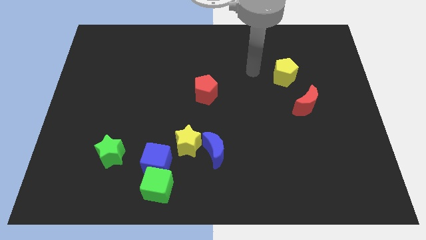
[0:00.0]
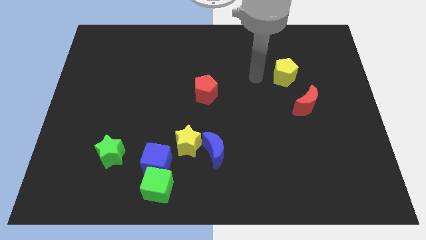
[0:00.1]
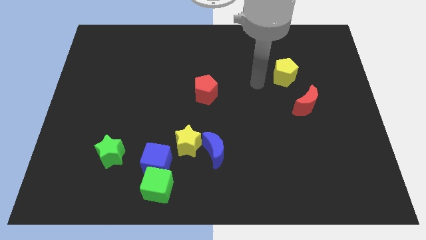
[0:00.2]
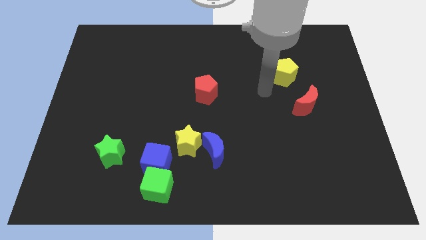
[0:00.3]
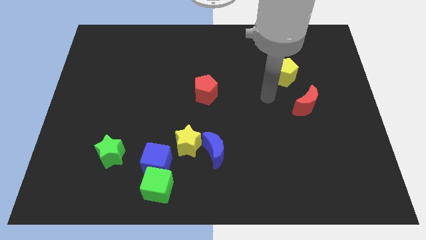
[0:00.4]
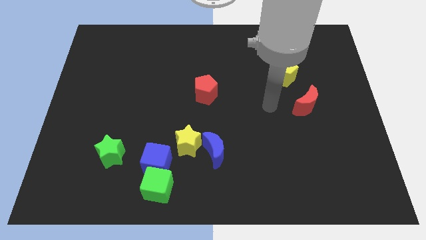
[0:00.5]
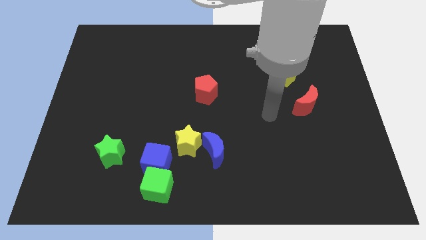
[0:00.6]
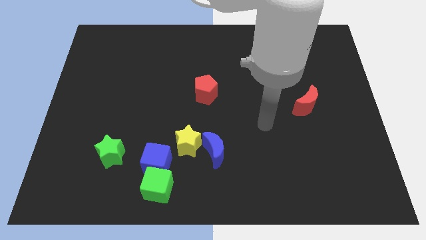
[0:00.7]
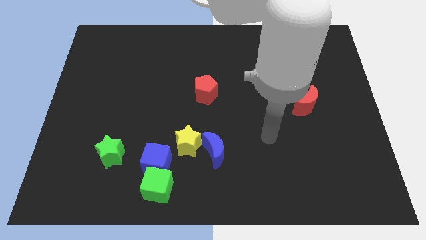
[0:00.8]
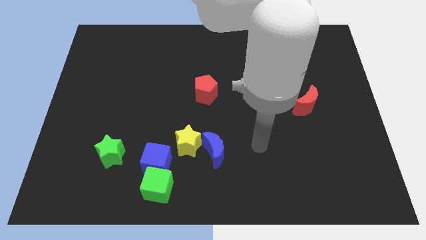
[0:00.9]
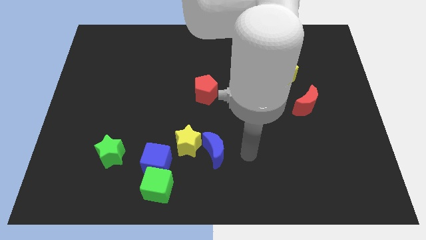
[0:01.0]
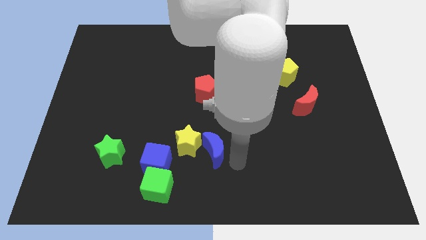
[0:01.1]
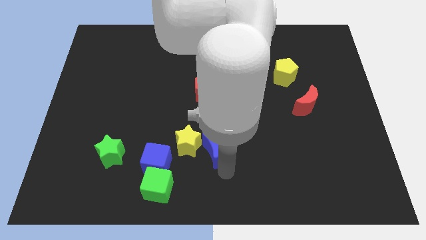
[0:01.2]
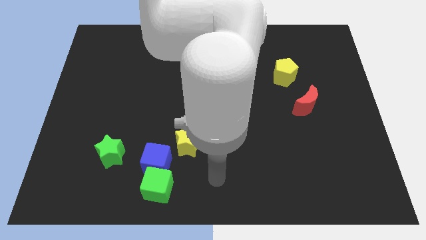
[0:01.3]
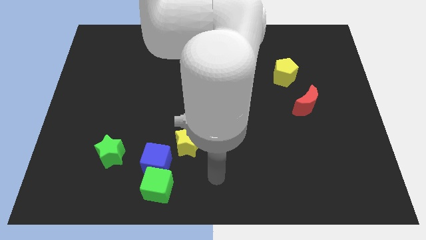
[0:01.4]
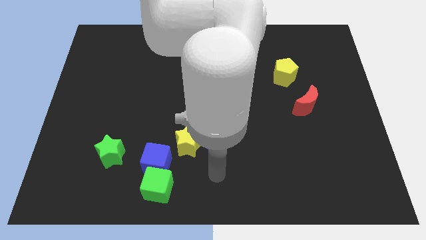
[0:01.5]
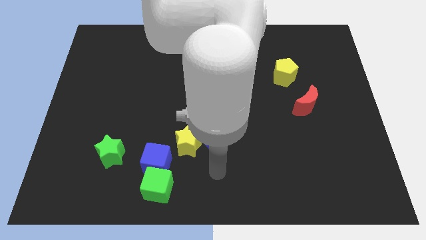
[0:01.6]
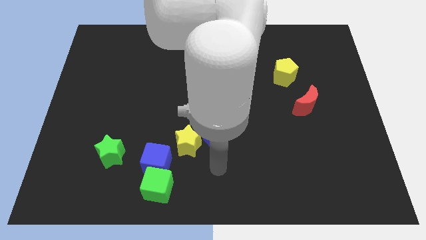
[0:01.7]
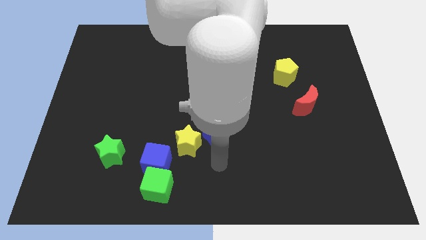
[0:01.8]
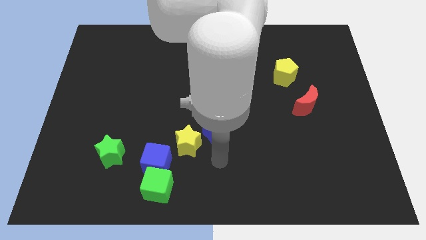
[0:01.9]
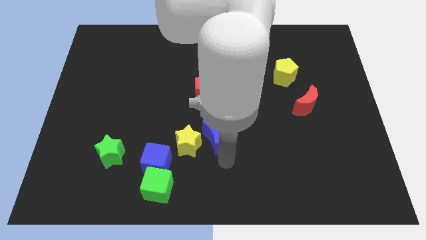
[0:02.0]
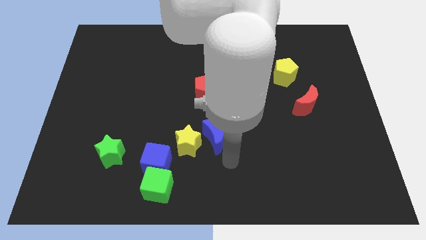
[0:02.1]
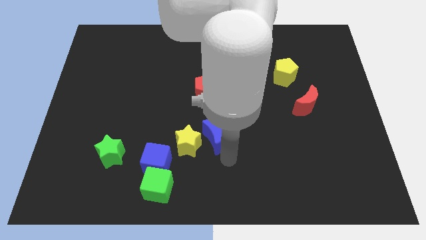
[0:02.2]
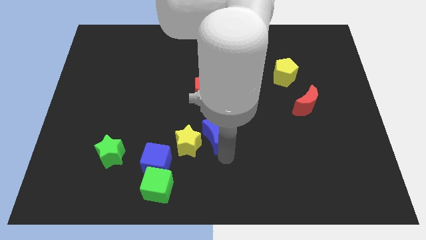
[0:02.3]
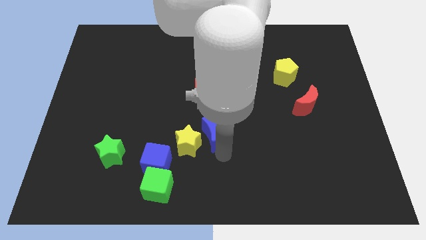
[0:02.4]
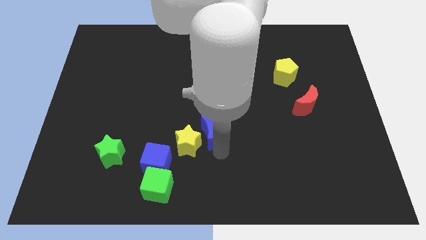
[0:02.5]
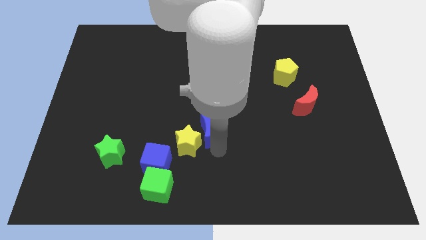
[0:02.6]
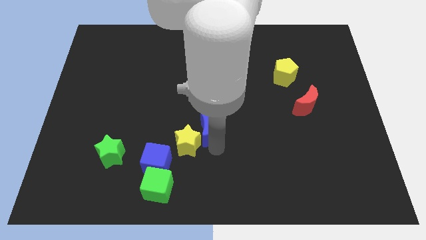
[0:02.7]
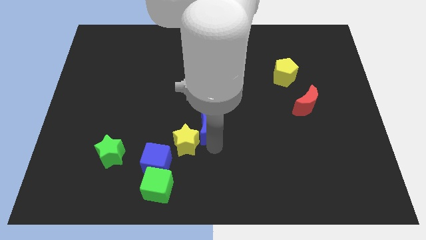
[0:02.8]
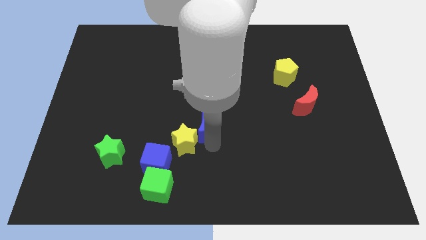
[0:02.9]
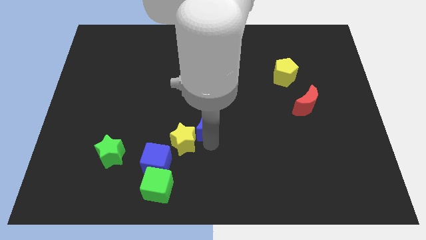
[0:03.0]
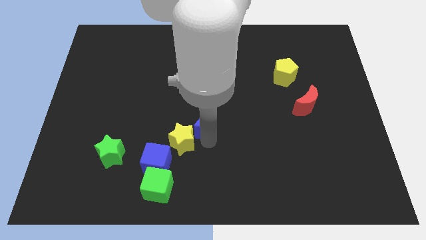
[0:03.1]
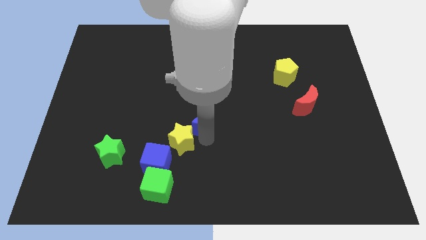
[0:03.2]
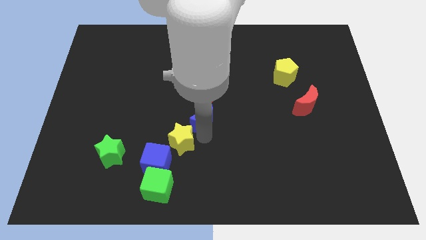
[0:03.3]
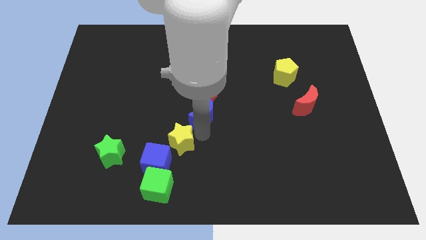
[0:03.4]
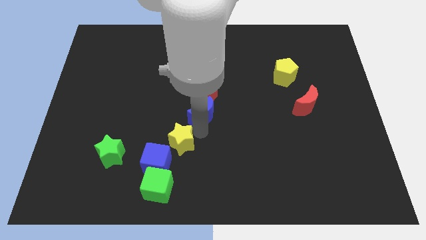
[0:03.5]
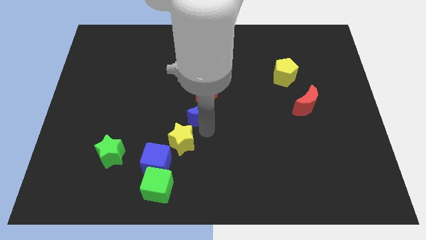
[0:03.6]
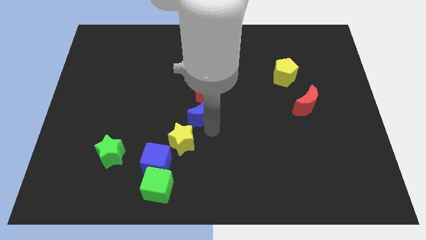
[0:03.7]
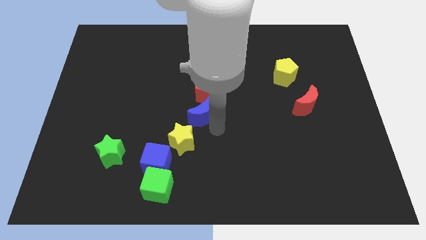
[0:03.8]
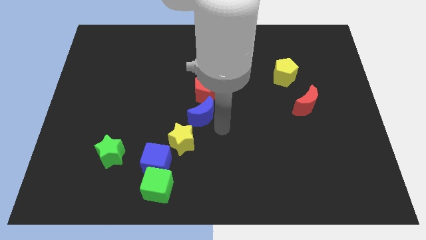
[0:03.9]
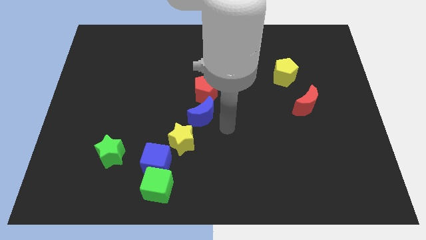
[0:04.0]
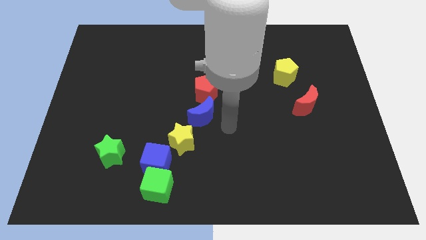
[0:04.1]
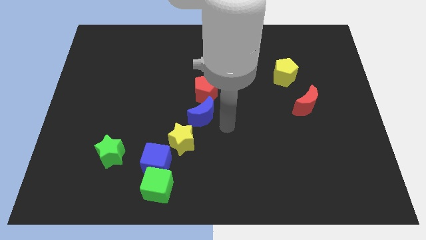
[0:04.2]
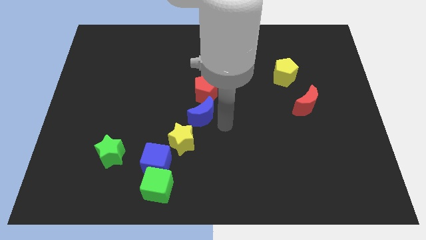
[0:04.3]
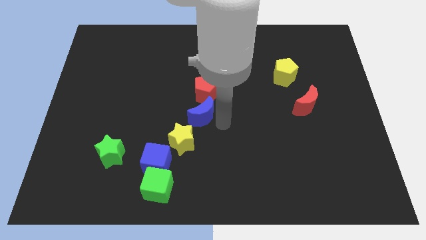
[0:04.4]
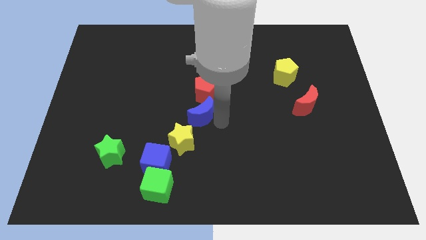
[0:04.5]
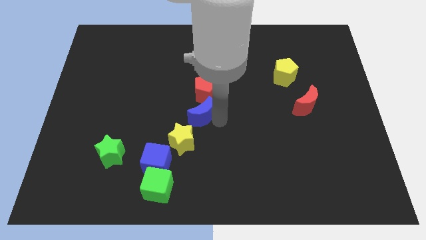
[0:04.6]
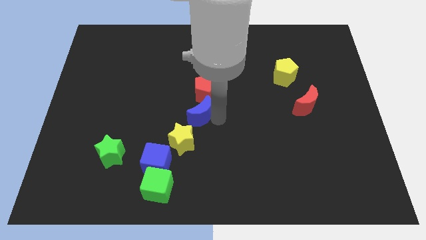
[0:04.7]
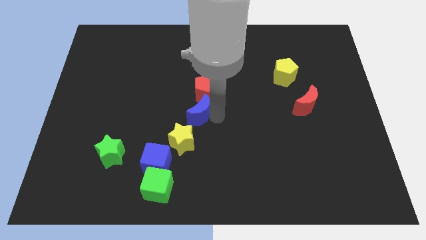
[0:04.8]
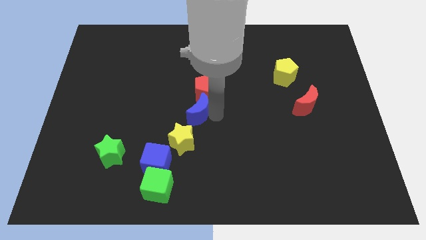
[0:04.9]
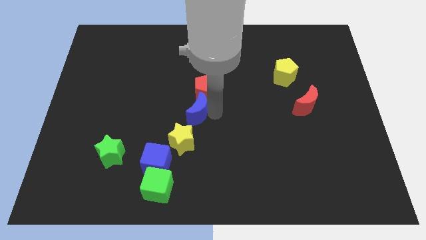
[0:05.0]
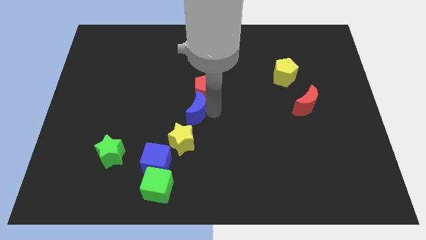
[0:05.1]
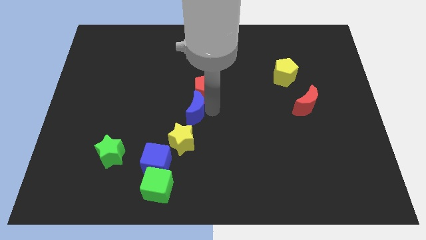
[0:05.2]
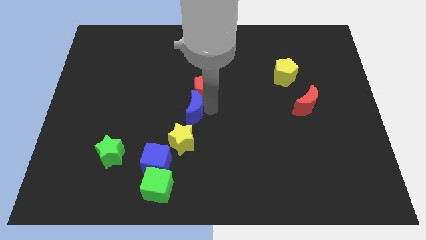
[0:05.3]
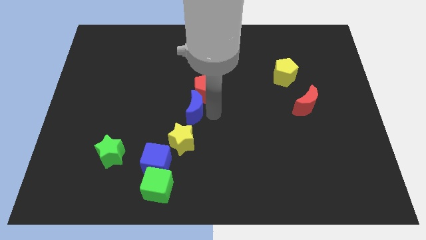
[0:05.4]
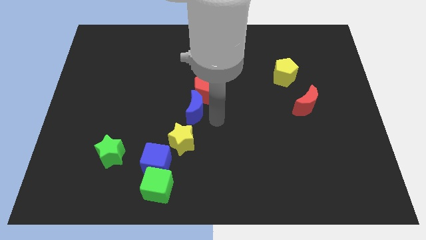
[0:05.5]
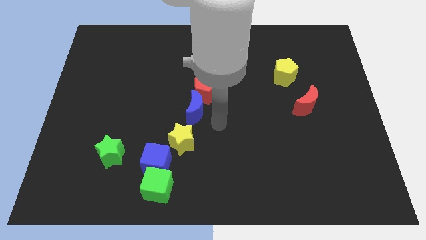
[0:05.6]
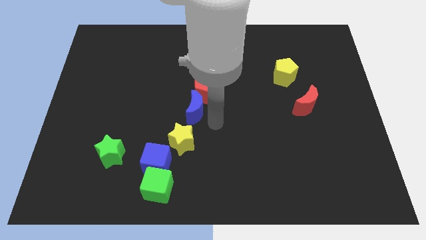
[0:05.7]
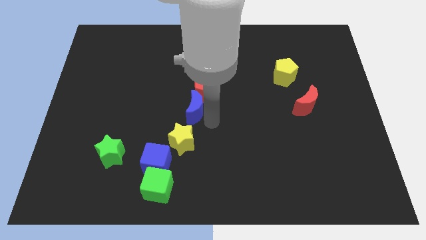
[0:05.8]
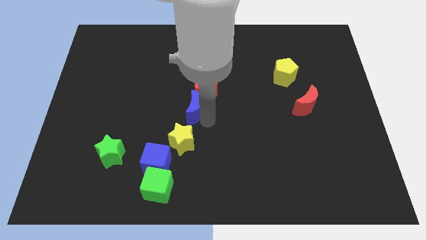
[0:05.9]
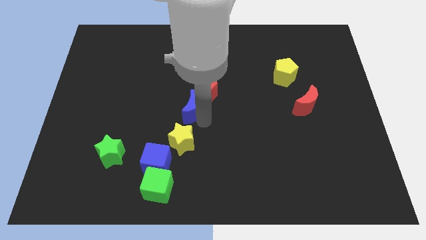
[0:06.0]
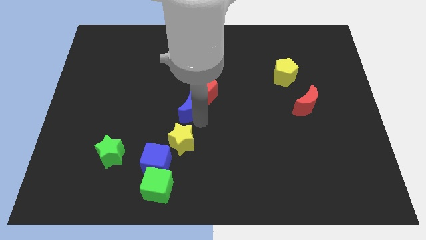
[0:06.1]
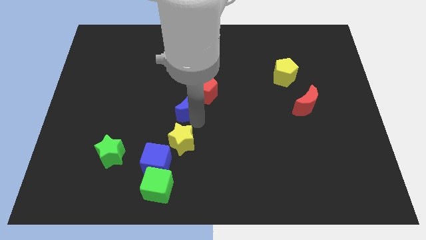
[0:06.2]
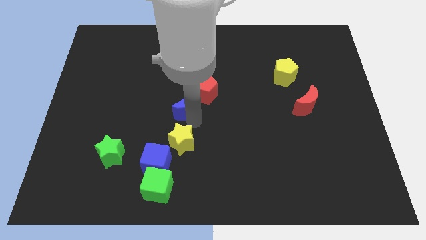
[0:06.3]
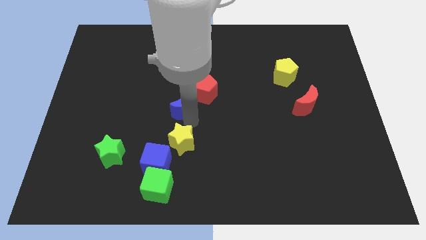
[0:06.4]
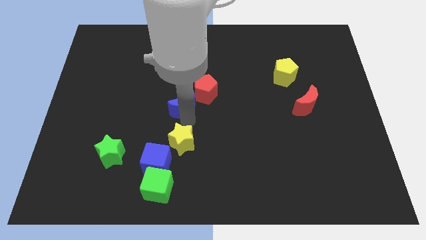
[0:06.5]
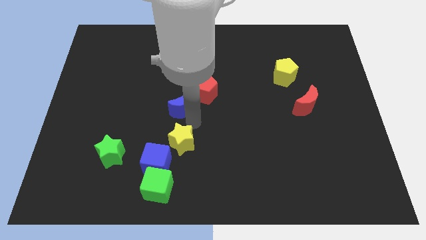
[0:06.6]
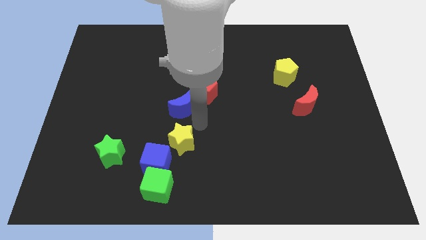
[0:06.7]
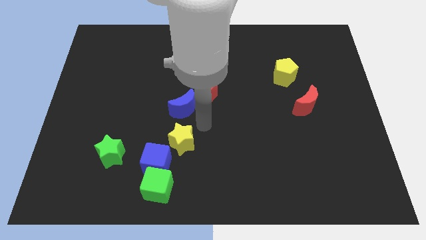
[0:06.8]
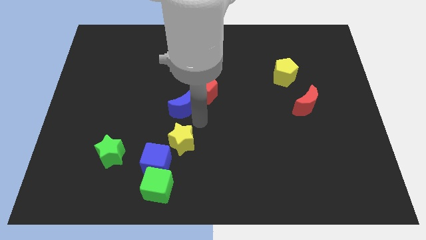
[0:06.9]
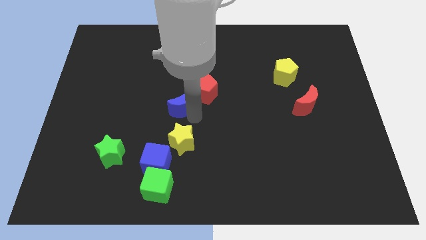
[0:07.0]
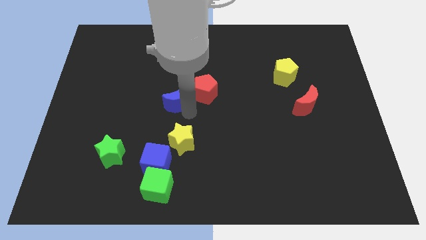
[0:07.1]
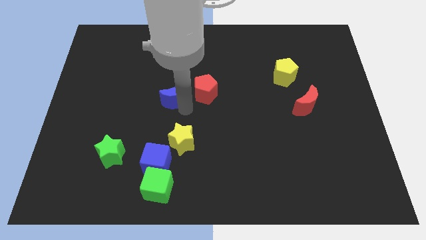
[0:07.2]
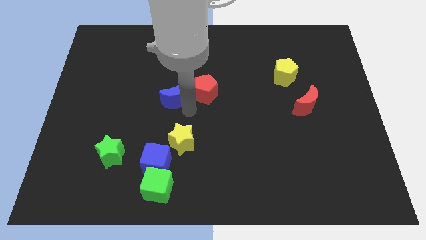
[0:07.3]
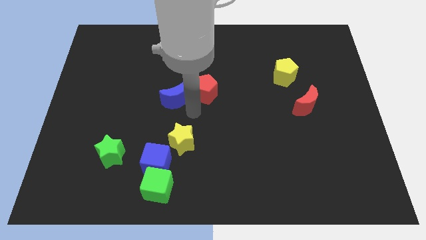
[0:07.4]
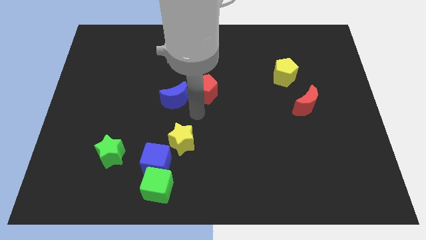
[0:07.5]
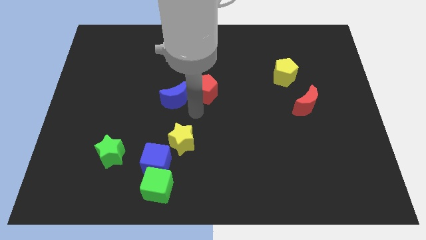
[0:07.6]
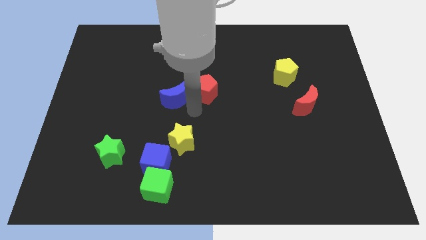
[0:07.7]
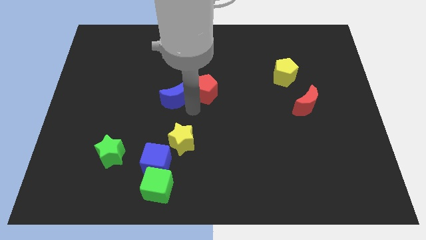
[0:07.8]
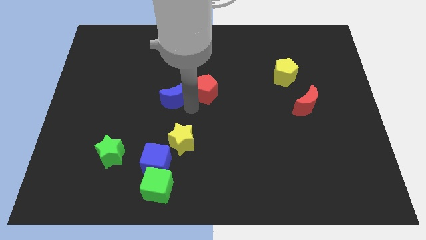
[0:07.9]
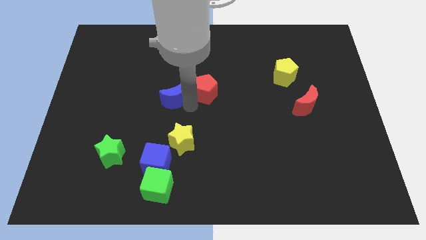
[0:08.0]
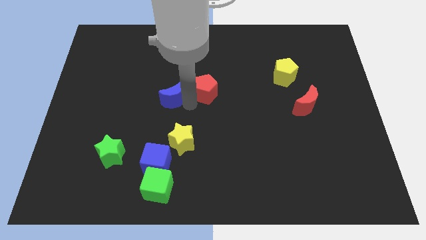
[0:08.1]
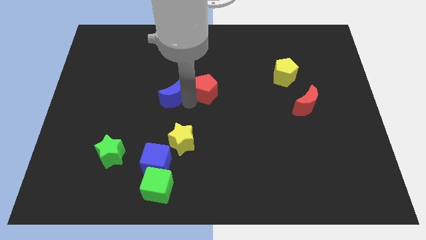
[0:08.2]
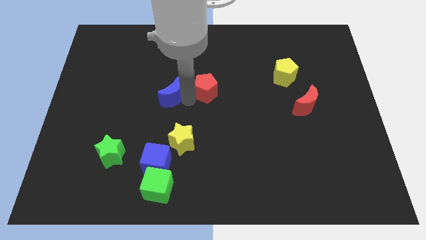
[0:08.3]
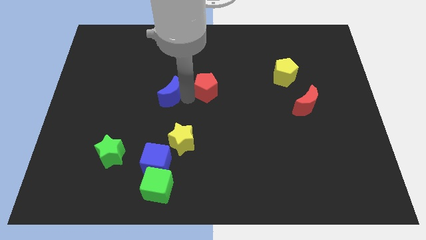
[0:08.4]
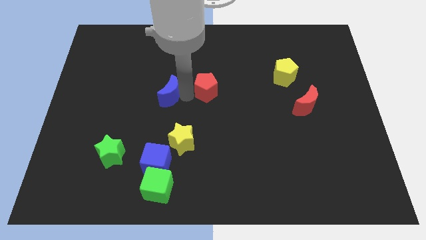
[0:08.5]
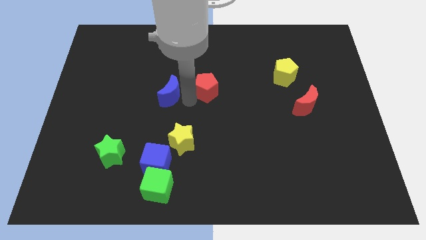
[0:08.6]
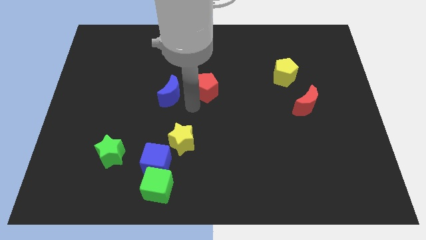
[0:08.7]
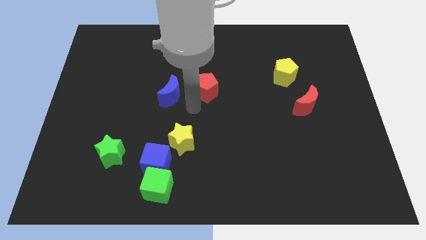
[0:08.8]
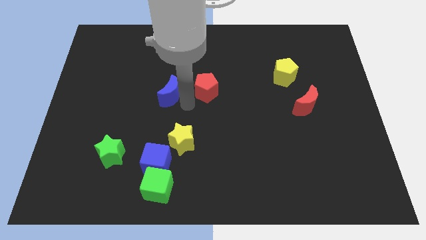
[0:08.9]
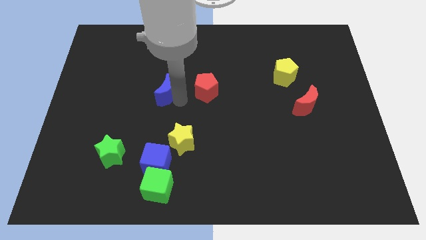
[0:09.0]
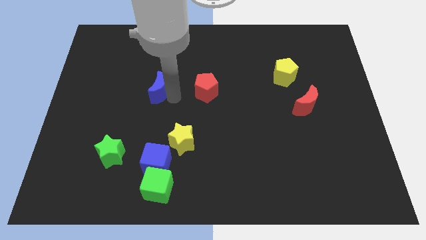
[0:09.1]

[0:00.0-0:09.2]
push the blue moon diagonally upwards and left
